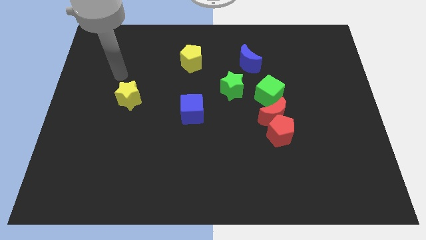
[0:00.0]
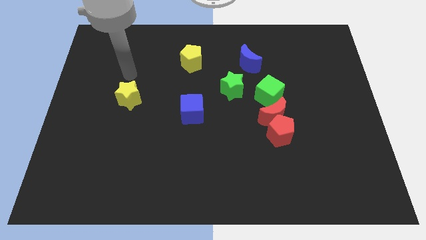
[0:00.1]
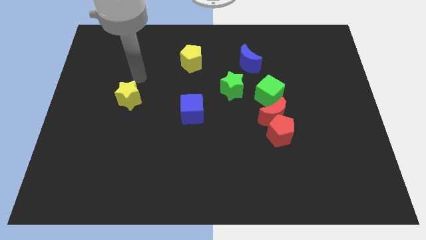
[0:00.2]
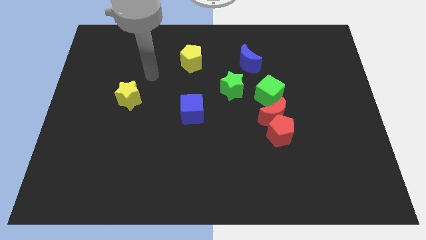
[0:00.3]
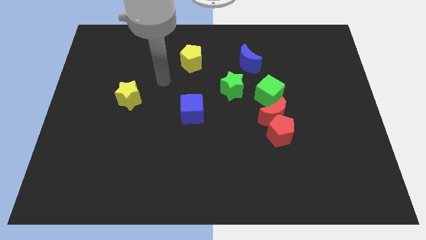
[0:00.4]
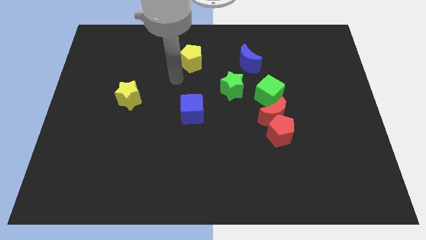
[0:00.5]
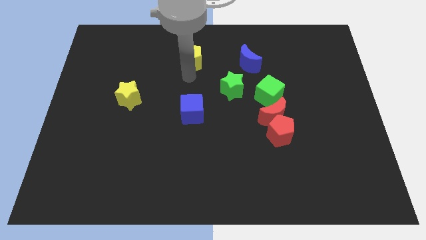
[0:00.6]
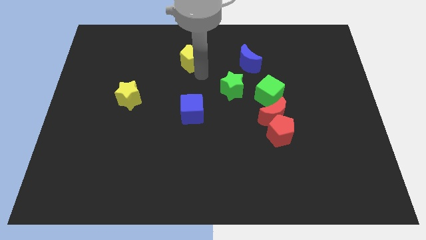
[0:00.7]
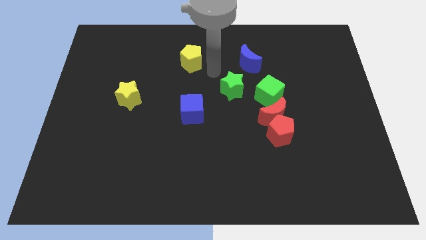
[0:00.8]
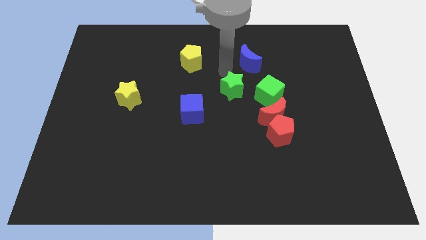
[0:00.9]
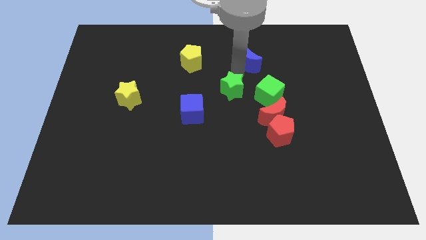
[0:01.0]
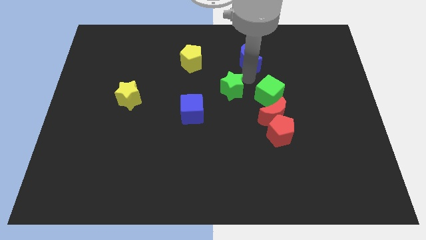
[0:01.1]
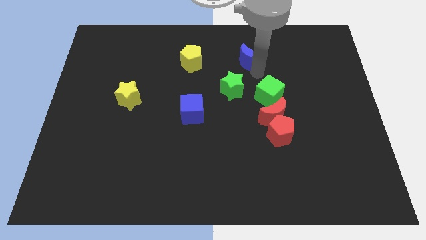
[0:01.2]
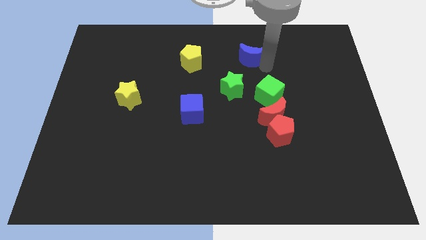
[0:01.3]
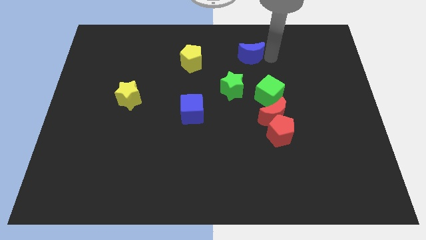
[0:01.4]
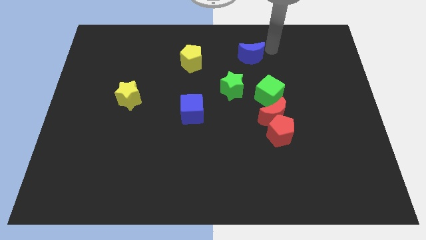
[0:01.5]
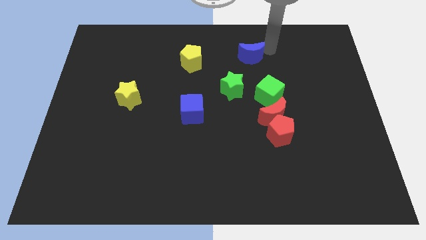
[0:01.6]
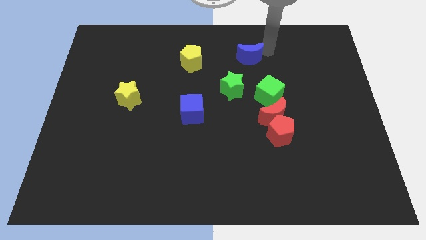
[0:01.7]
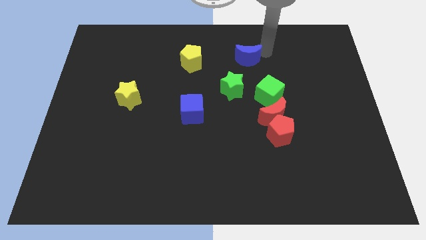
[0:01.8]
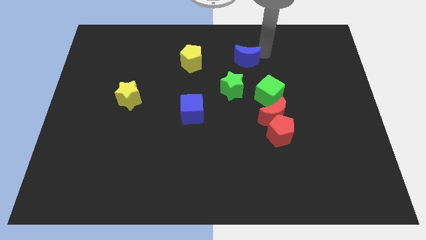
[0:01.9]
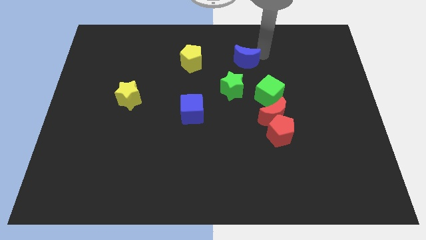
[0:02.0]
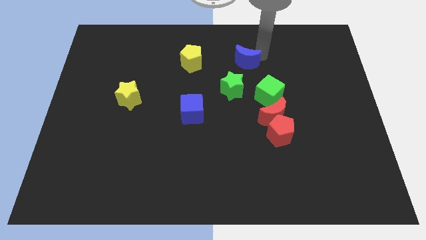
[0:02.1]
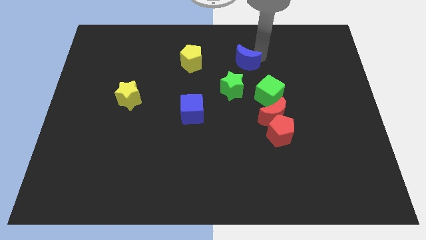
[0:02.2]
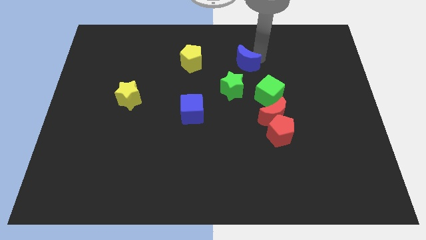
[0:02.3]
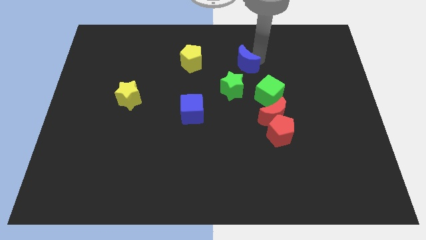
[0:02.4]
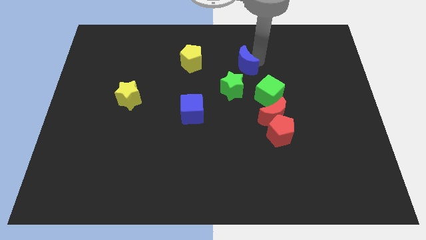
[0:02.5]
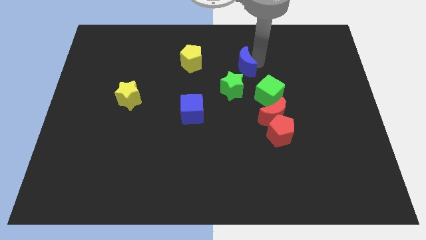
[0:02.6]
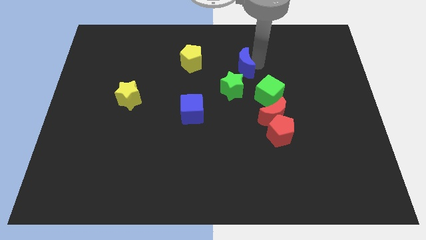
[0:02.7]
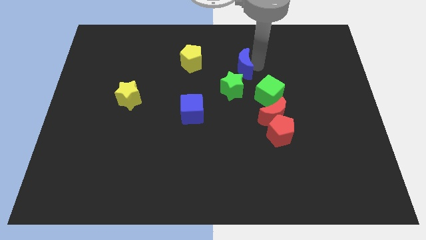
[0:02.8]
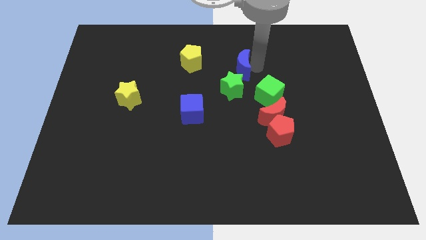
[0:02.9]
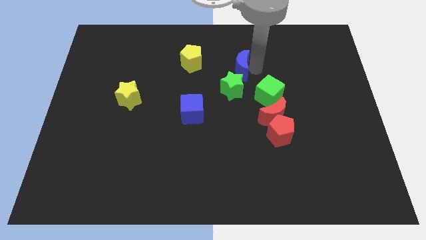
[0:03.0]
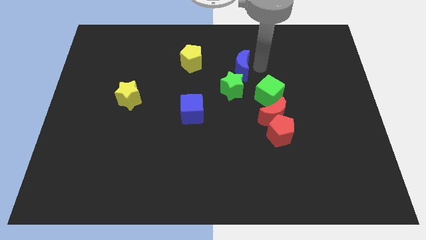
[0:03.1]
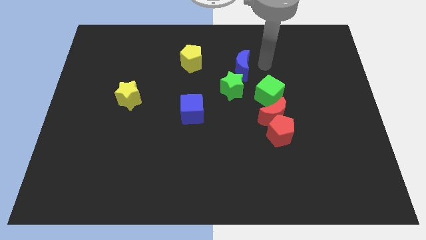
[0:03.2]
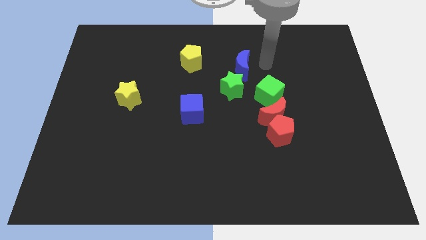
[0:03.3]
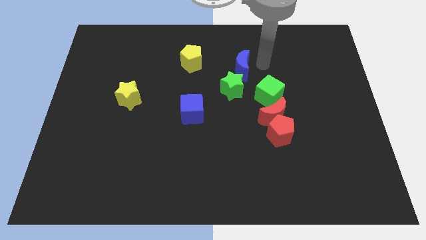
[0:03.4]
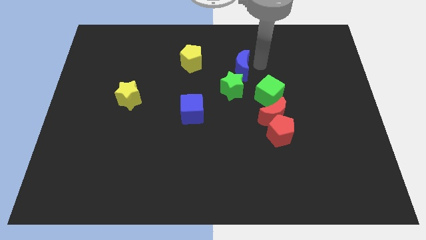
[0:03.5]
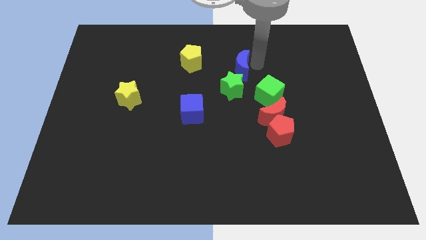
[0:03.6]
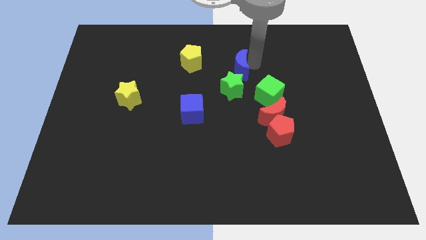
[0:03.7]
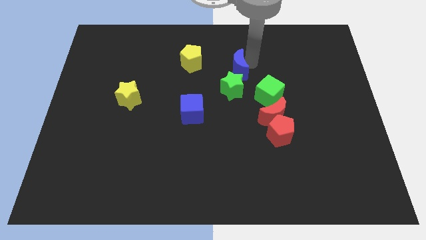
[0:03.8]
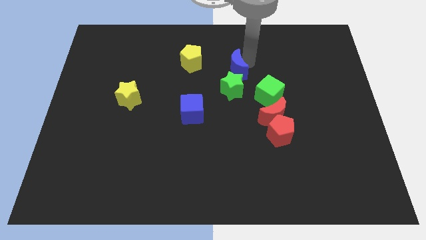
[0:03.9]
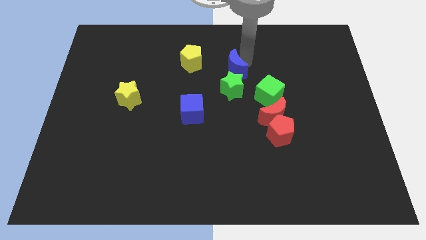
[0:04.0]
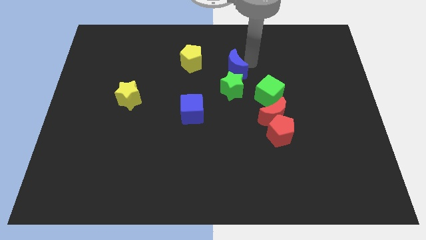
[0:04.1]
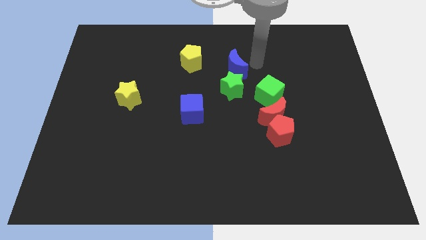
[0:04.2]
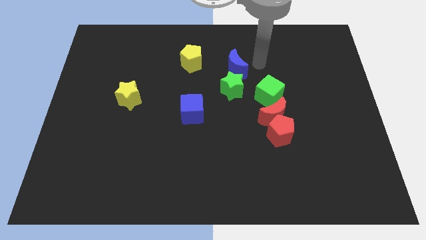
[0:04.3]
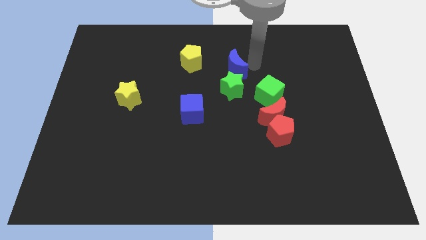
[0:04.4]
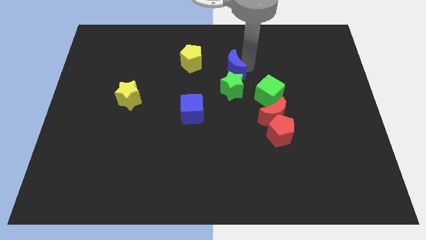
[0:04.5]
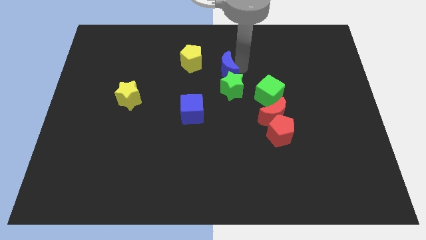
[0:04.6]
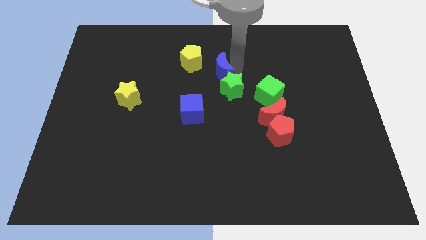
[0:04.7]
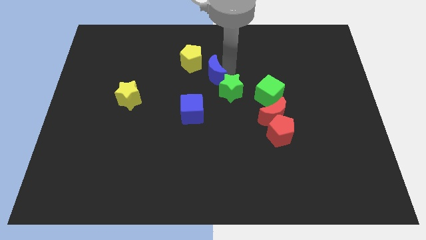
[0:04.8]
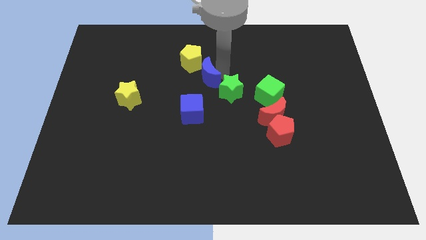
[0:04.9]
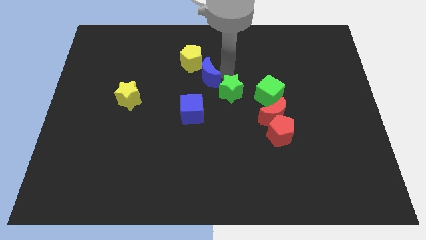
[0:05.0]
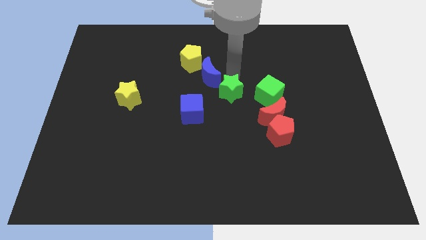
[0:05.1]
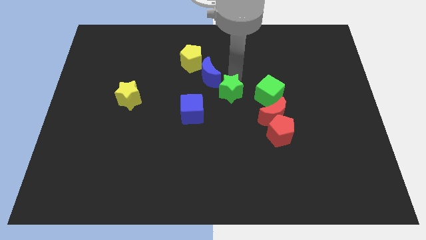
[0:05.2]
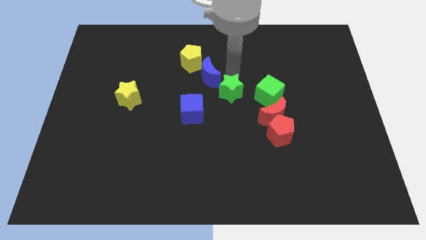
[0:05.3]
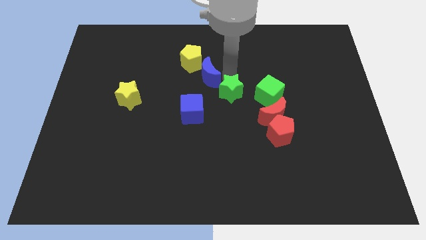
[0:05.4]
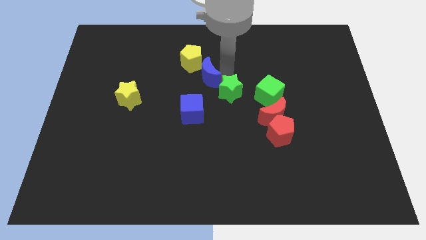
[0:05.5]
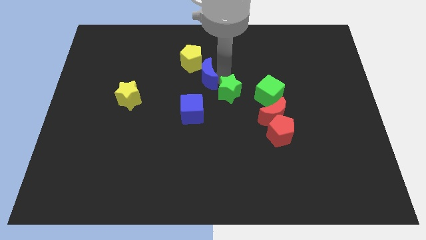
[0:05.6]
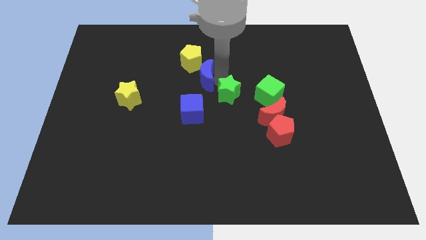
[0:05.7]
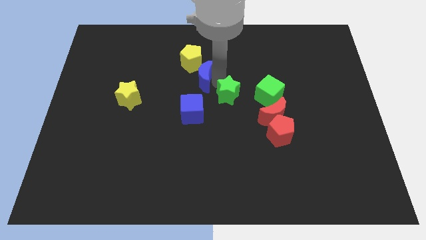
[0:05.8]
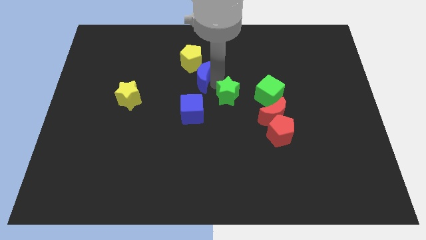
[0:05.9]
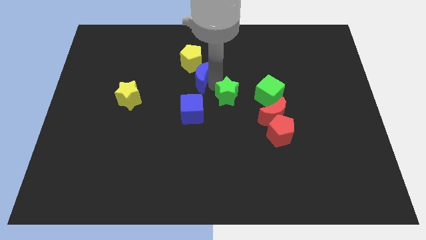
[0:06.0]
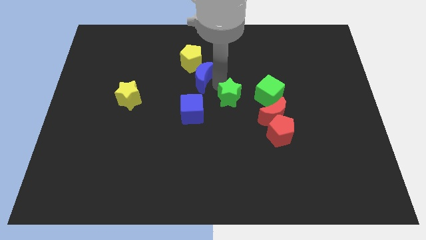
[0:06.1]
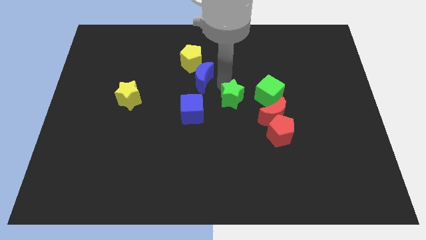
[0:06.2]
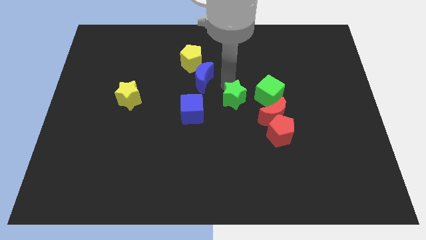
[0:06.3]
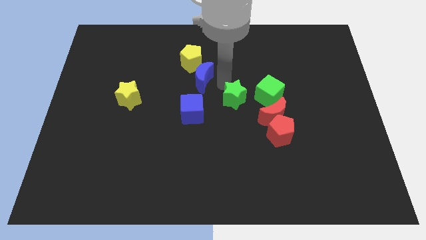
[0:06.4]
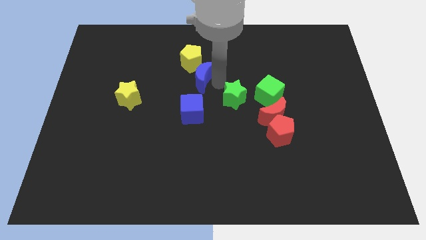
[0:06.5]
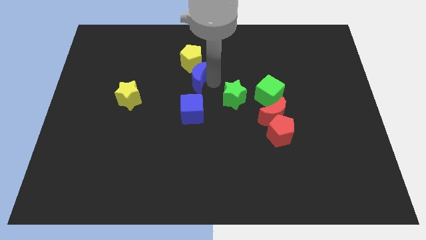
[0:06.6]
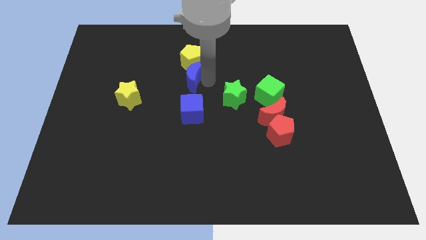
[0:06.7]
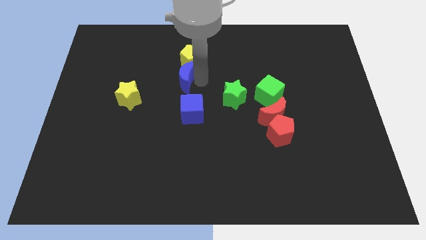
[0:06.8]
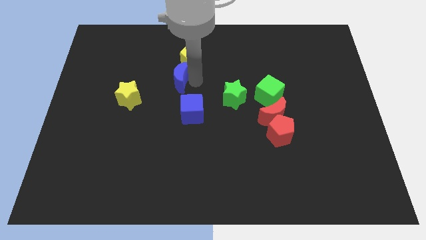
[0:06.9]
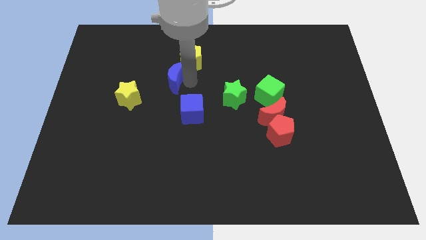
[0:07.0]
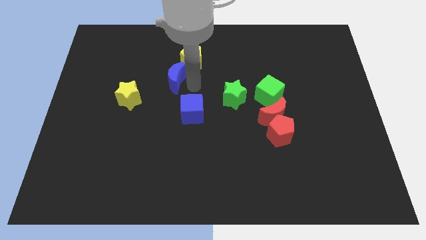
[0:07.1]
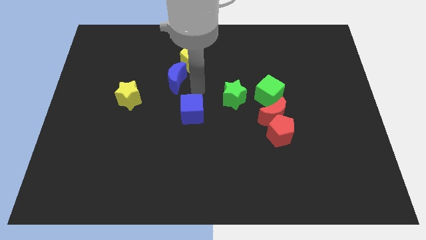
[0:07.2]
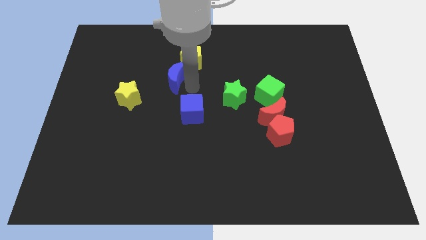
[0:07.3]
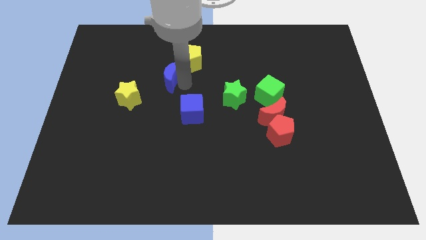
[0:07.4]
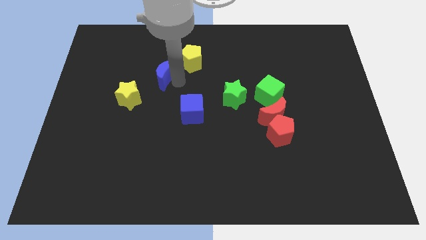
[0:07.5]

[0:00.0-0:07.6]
slide the blue moon left

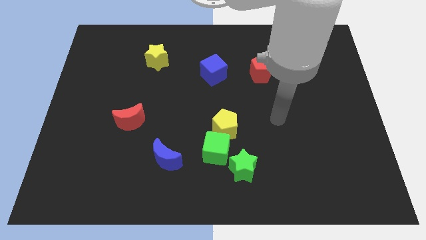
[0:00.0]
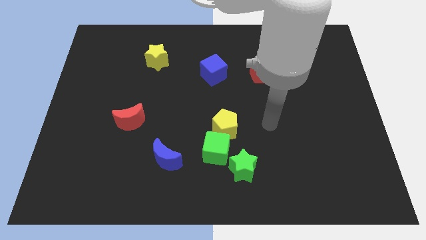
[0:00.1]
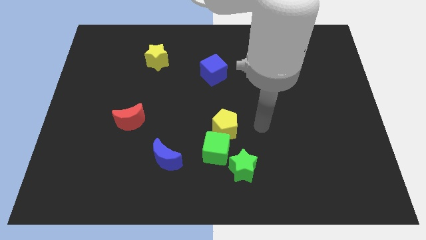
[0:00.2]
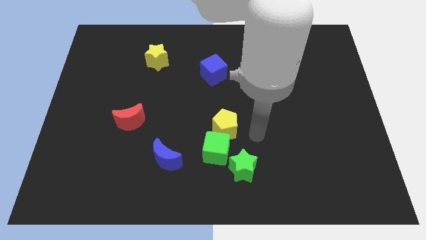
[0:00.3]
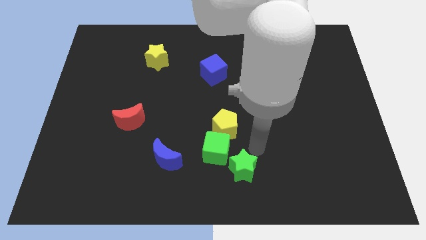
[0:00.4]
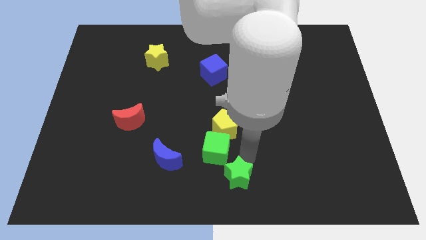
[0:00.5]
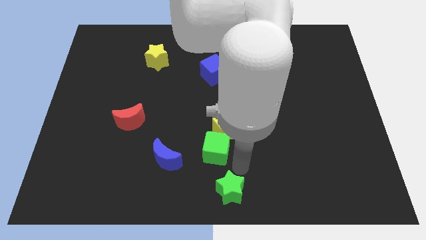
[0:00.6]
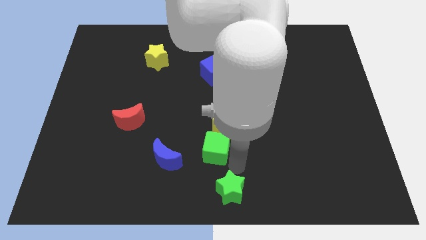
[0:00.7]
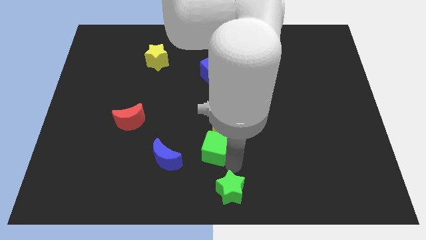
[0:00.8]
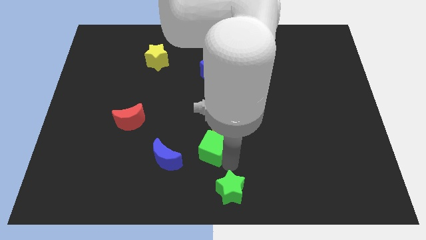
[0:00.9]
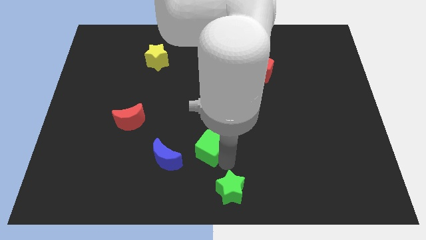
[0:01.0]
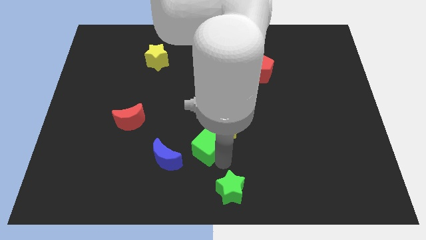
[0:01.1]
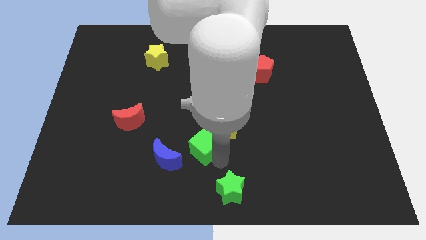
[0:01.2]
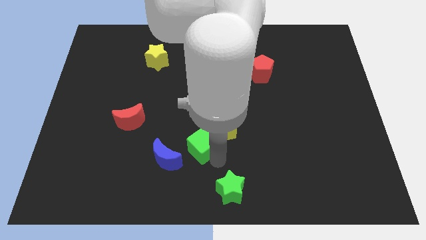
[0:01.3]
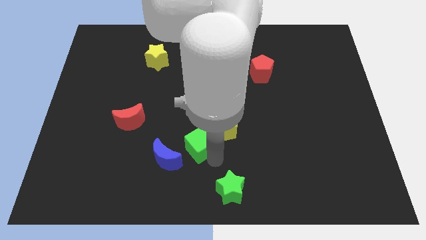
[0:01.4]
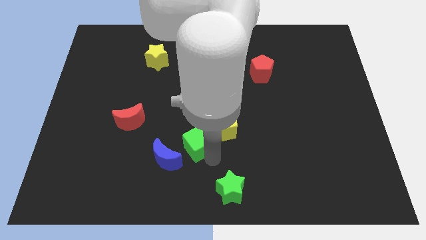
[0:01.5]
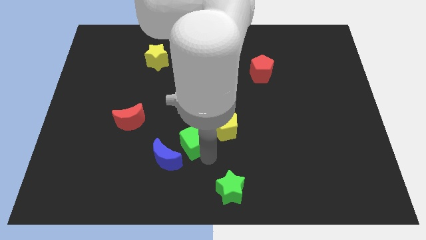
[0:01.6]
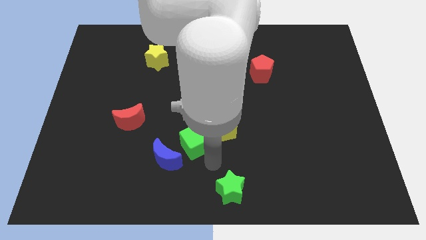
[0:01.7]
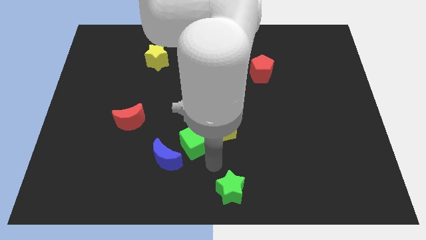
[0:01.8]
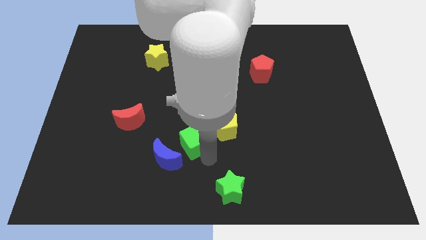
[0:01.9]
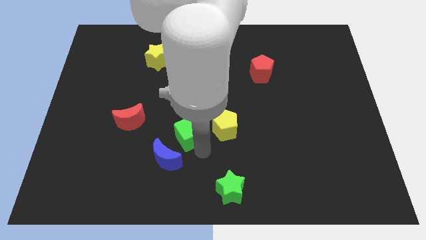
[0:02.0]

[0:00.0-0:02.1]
slide the green cube up and then to the left a little bit
